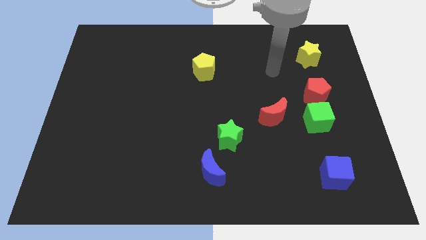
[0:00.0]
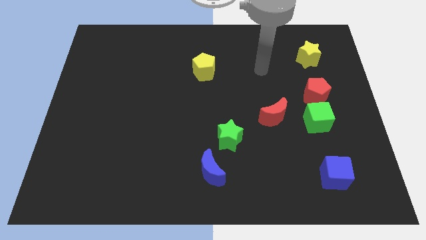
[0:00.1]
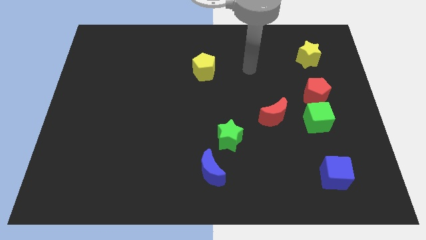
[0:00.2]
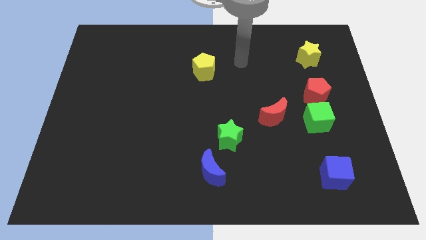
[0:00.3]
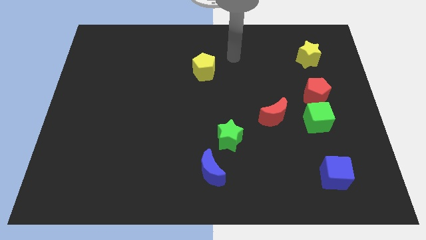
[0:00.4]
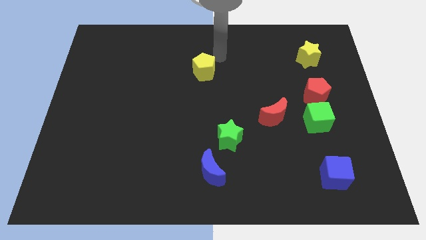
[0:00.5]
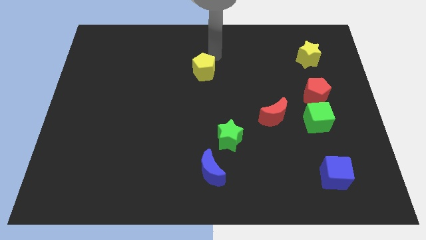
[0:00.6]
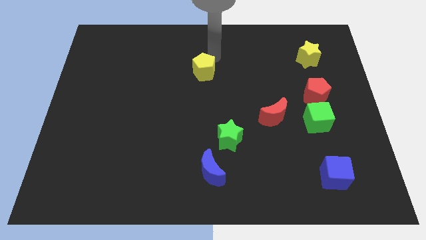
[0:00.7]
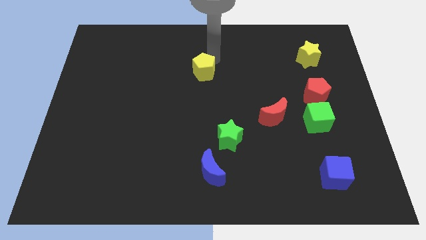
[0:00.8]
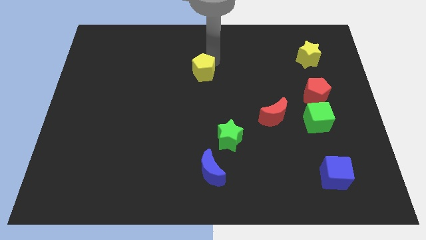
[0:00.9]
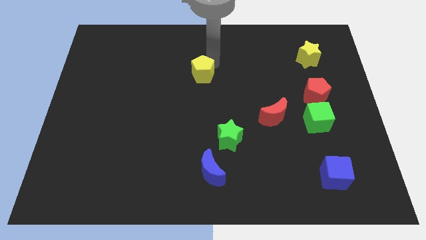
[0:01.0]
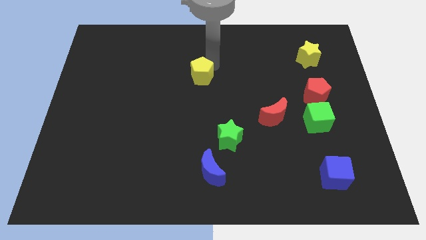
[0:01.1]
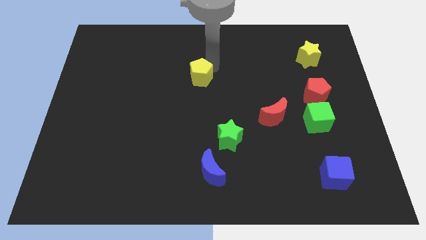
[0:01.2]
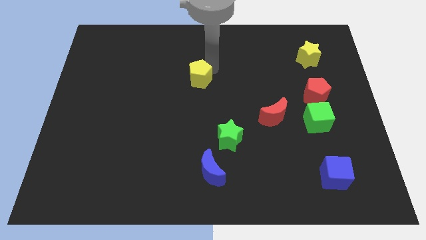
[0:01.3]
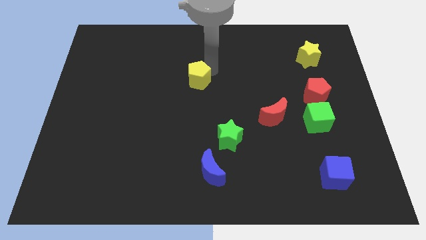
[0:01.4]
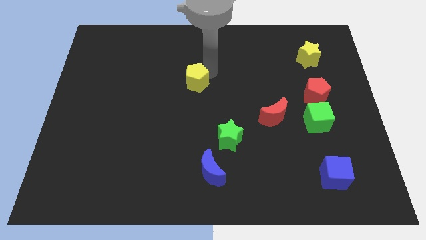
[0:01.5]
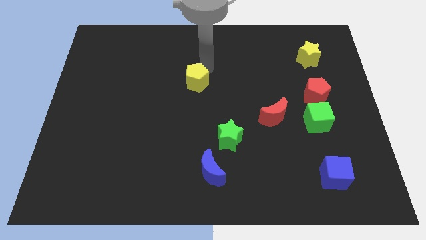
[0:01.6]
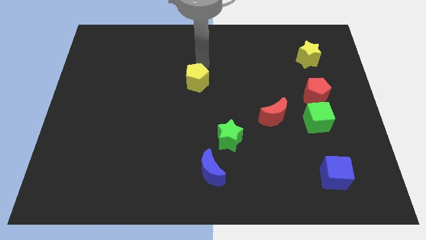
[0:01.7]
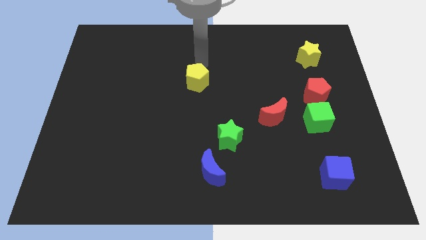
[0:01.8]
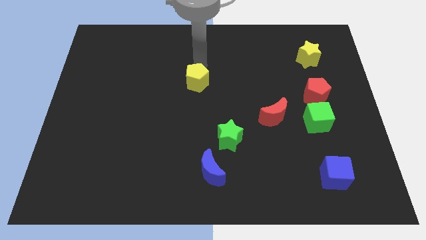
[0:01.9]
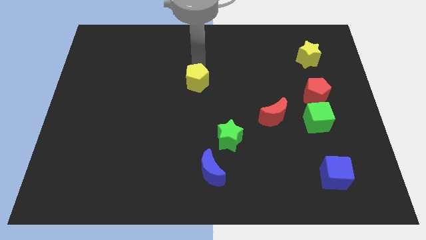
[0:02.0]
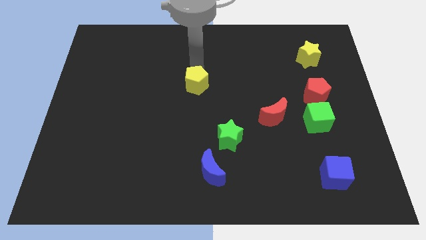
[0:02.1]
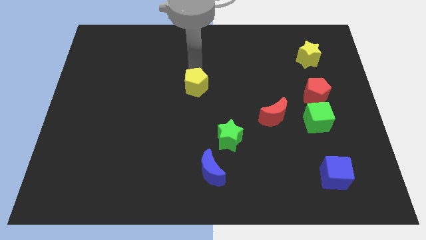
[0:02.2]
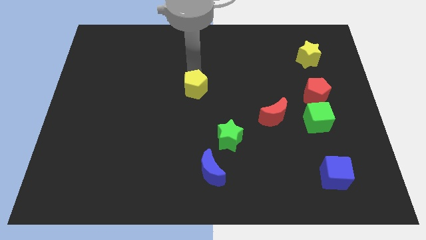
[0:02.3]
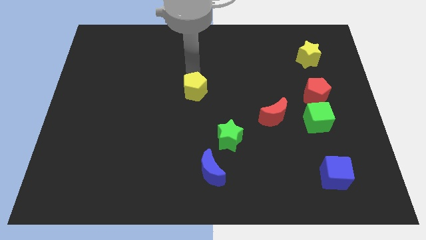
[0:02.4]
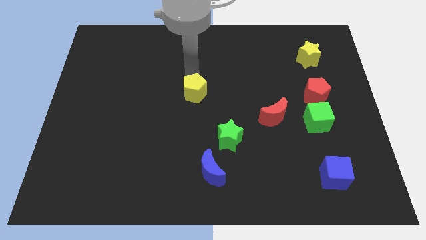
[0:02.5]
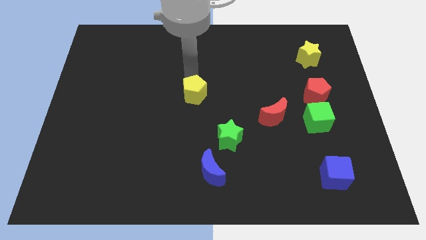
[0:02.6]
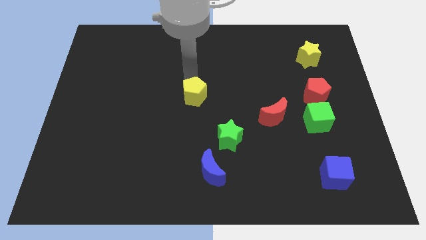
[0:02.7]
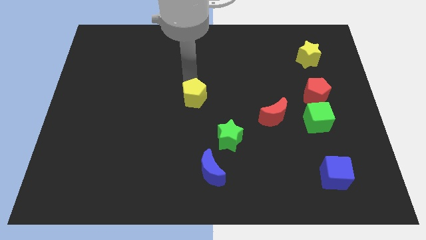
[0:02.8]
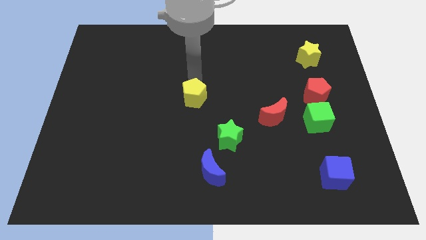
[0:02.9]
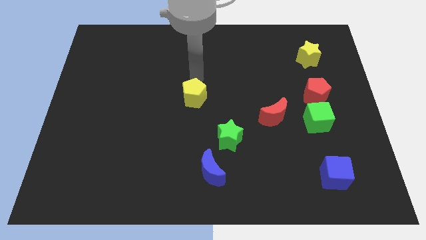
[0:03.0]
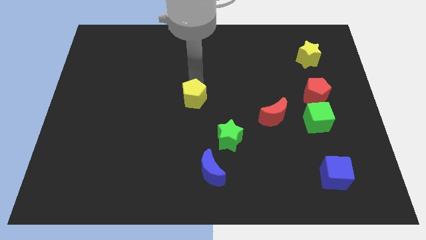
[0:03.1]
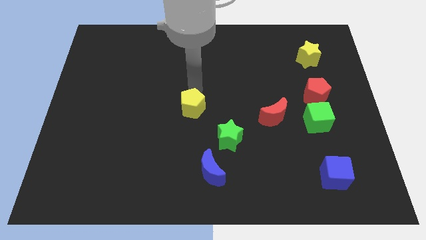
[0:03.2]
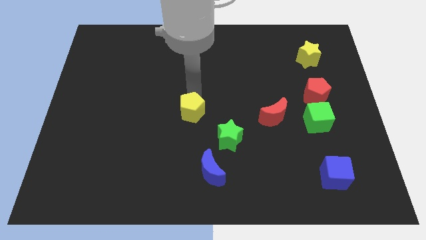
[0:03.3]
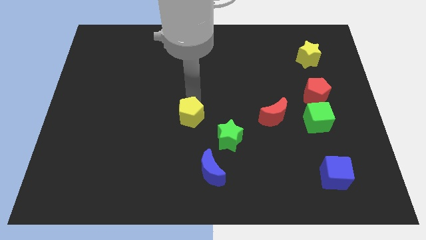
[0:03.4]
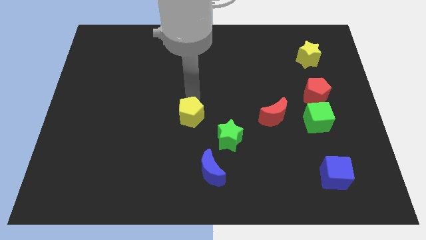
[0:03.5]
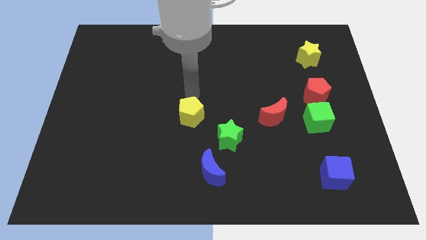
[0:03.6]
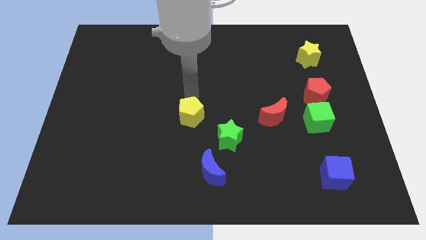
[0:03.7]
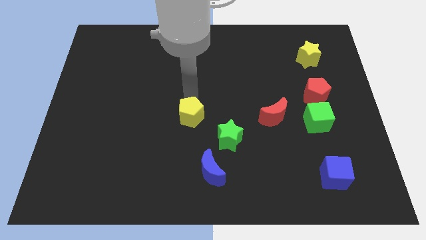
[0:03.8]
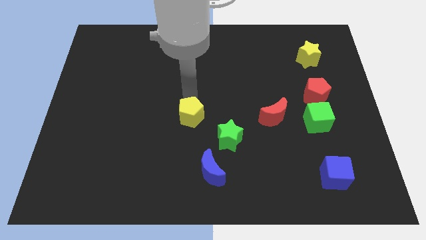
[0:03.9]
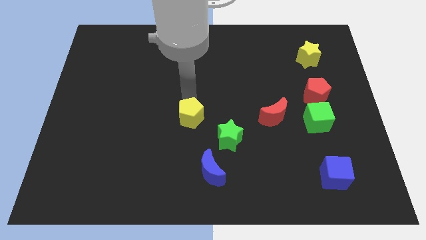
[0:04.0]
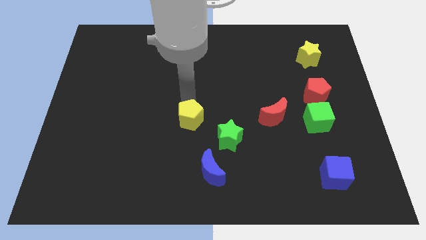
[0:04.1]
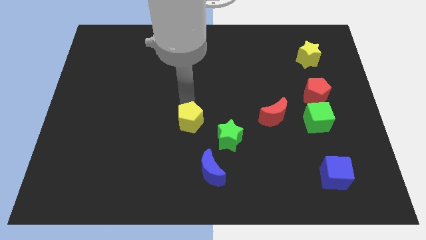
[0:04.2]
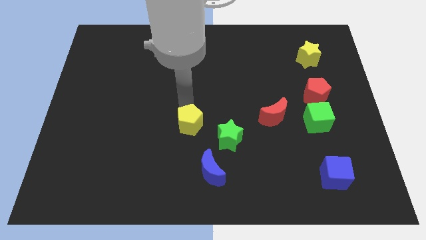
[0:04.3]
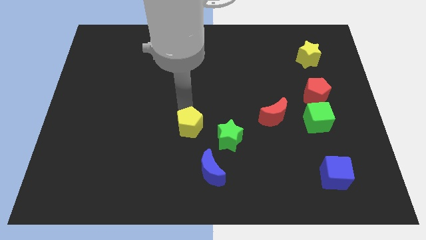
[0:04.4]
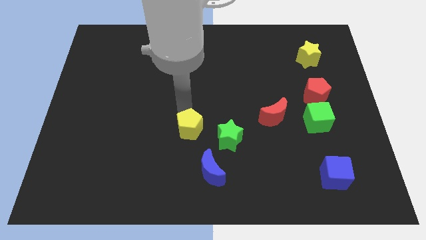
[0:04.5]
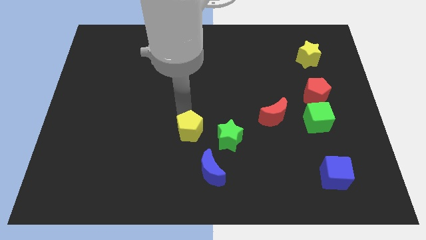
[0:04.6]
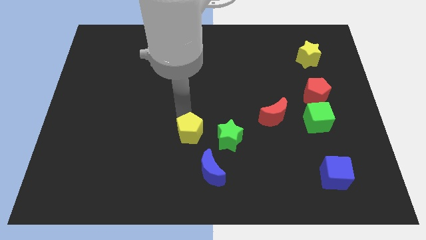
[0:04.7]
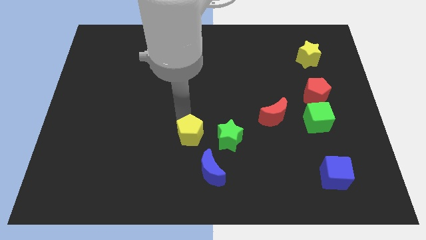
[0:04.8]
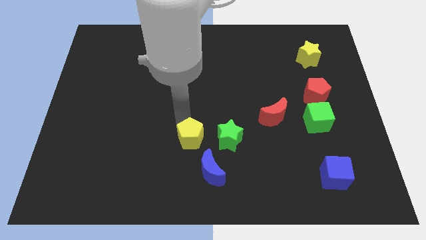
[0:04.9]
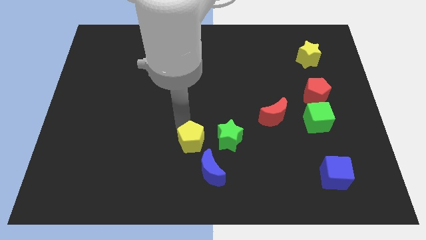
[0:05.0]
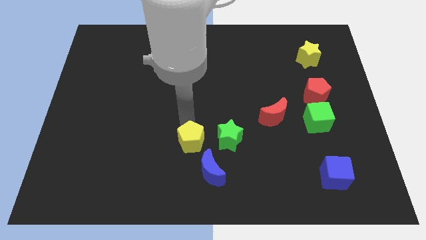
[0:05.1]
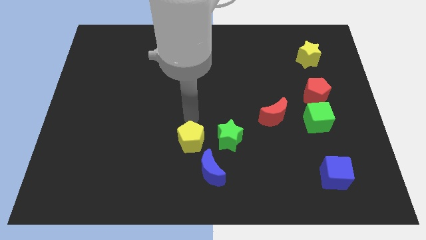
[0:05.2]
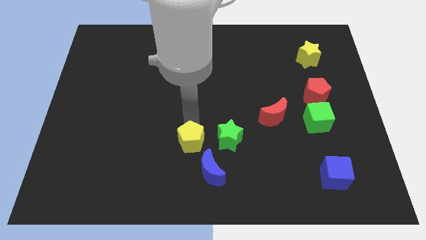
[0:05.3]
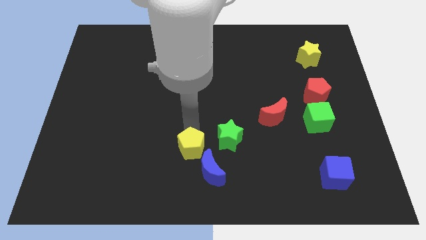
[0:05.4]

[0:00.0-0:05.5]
put the yellow pentagon diagonally down and to the left of the green star

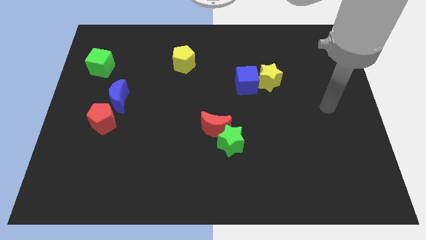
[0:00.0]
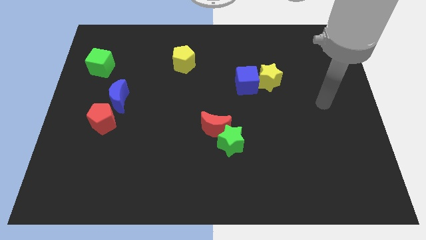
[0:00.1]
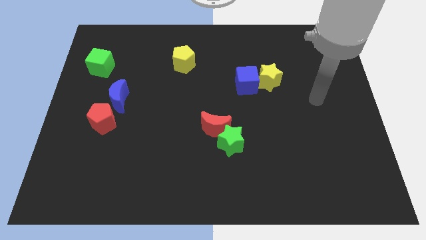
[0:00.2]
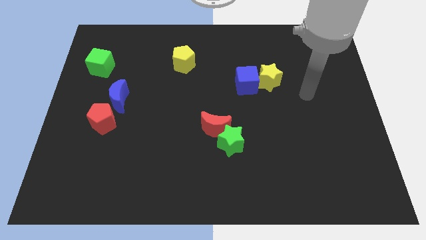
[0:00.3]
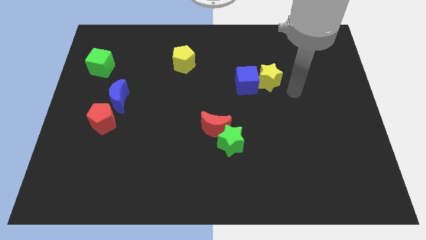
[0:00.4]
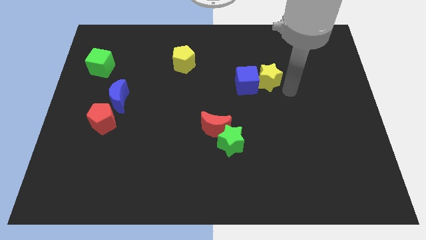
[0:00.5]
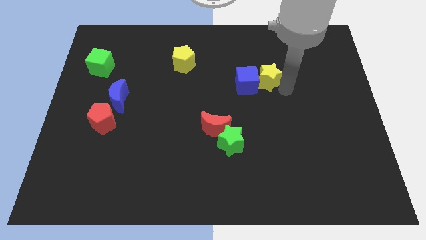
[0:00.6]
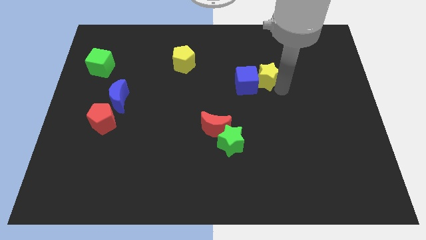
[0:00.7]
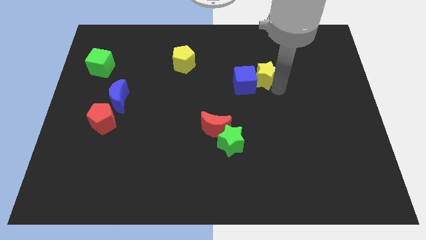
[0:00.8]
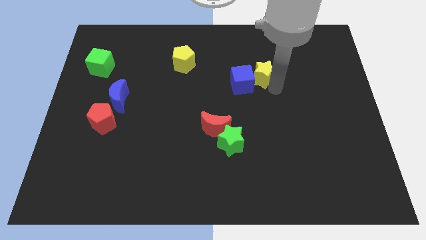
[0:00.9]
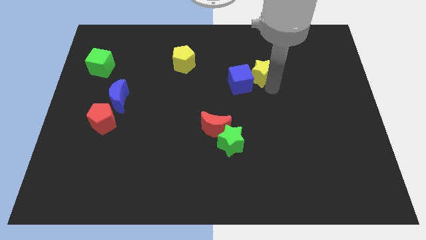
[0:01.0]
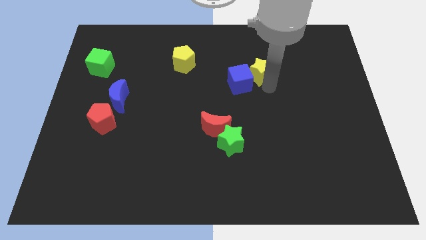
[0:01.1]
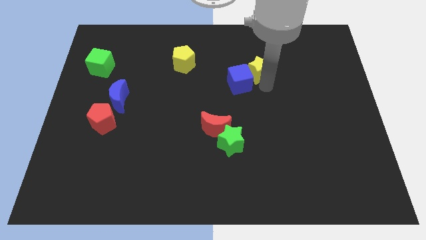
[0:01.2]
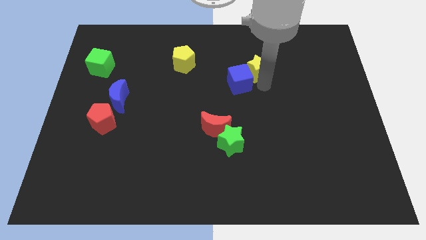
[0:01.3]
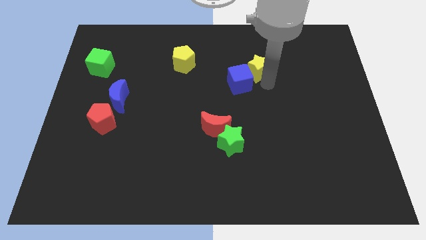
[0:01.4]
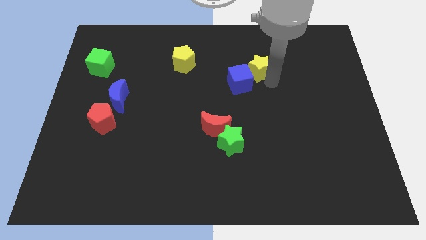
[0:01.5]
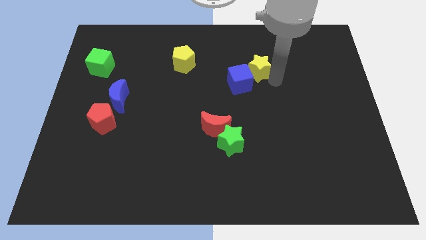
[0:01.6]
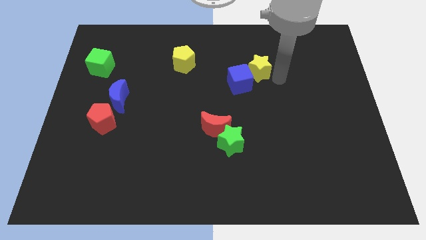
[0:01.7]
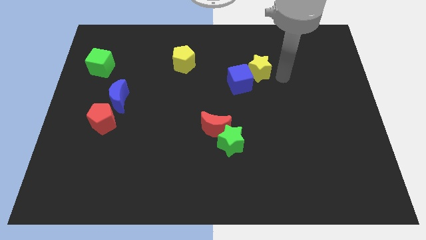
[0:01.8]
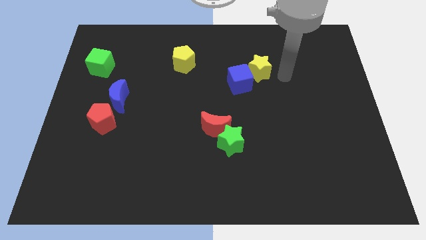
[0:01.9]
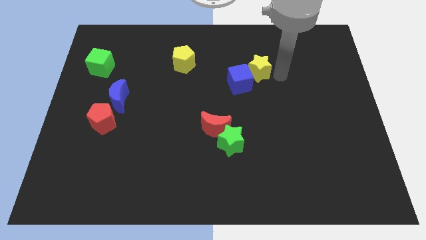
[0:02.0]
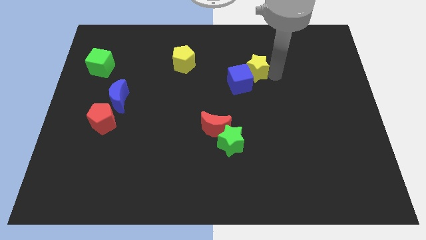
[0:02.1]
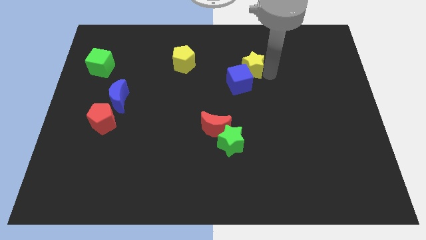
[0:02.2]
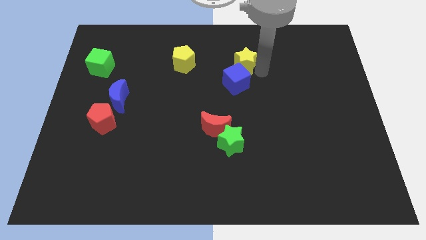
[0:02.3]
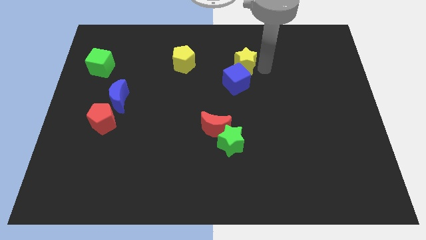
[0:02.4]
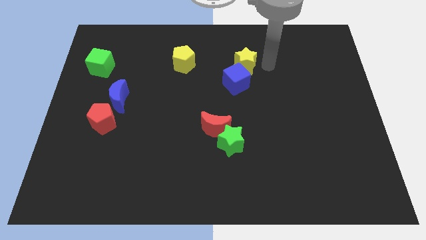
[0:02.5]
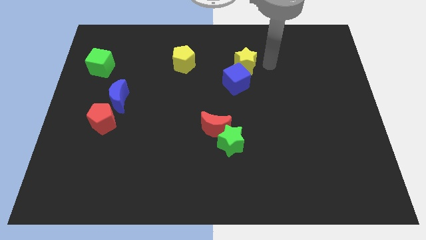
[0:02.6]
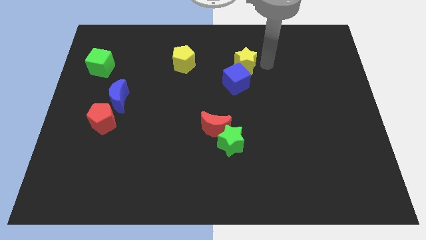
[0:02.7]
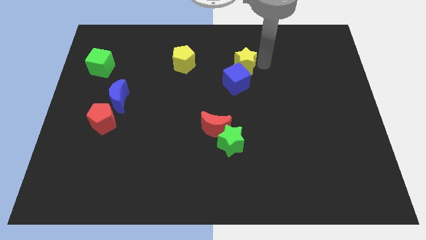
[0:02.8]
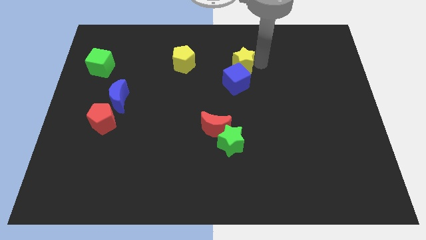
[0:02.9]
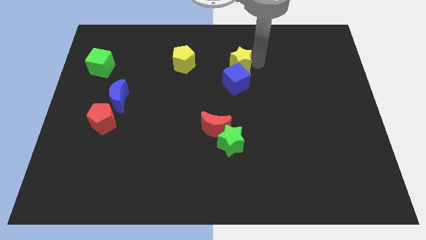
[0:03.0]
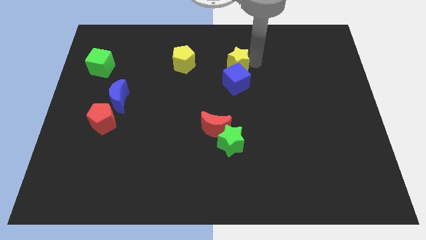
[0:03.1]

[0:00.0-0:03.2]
move the yellow star to the top left side of the blue cube
